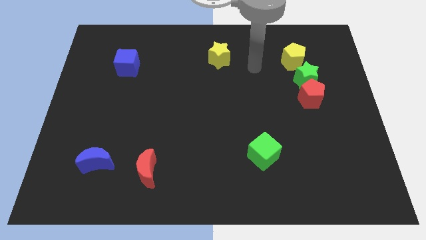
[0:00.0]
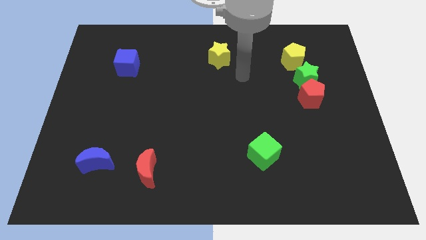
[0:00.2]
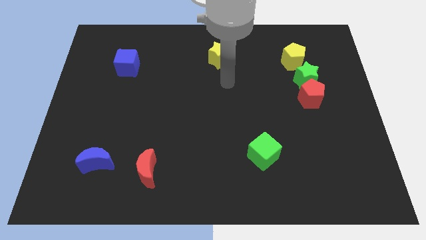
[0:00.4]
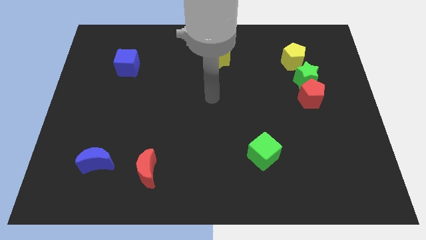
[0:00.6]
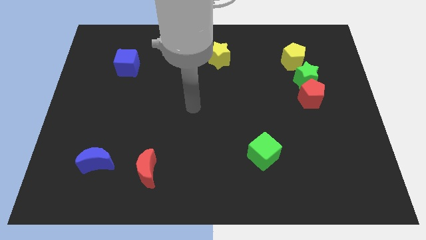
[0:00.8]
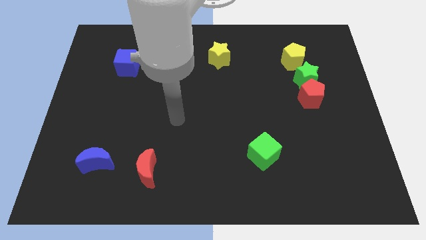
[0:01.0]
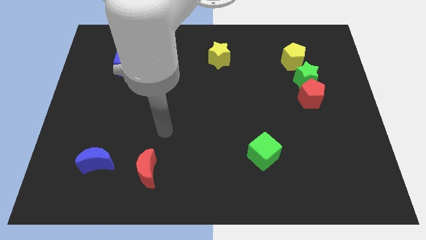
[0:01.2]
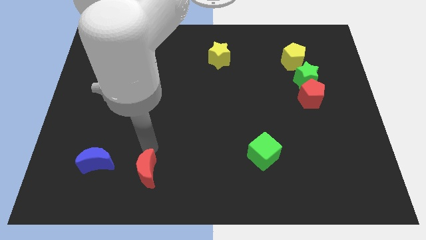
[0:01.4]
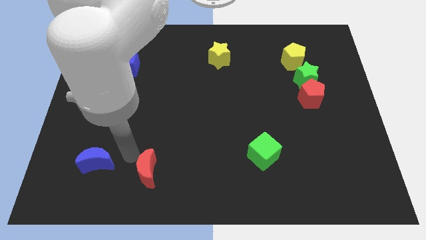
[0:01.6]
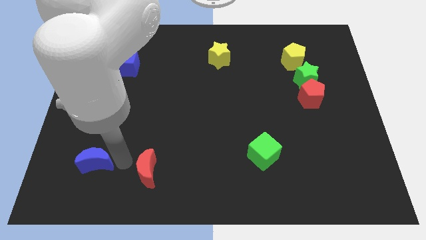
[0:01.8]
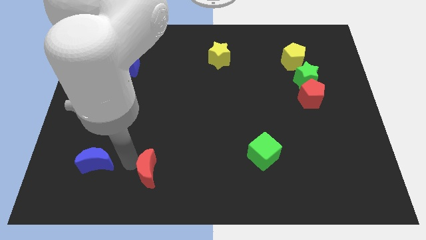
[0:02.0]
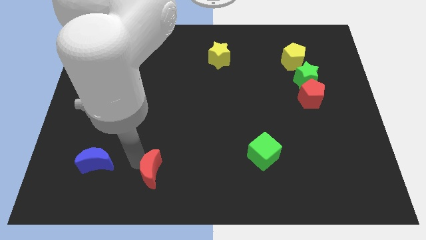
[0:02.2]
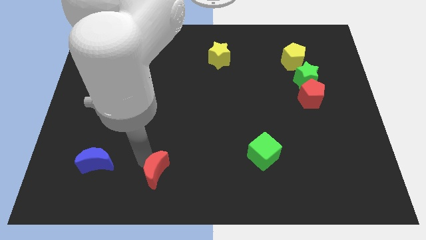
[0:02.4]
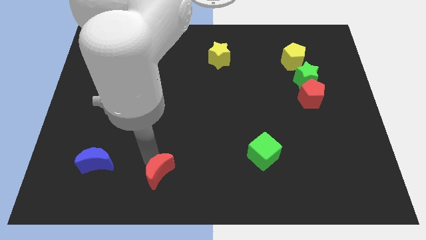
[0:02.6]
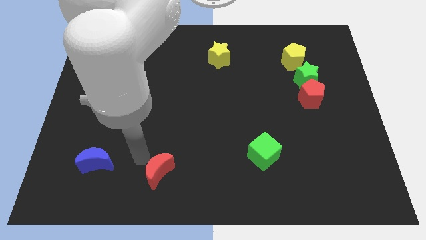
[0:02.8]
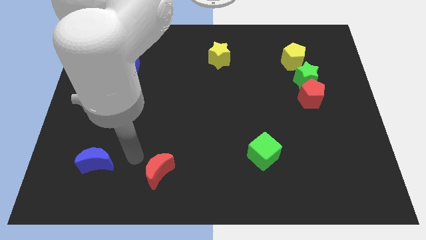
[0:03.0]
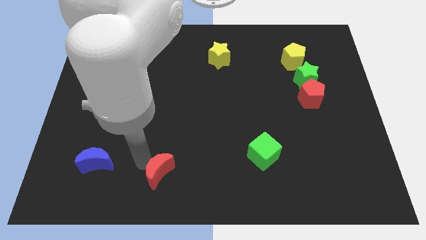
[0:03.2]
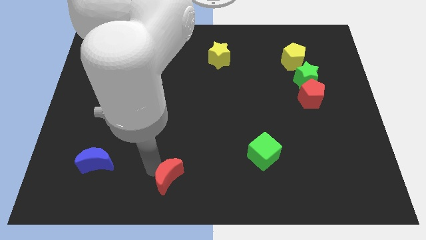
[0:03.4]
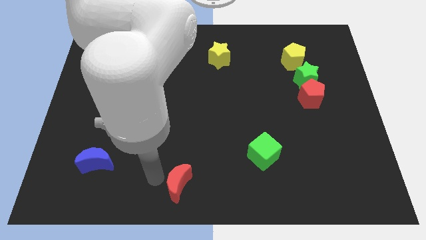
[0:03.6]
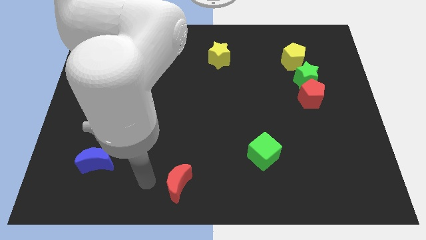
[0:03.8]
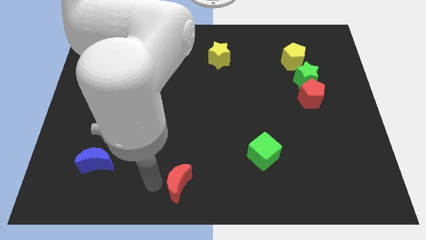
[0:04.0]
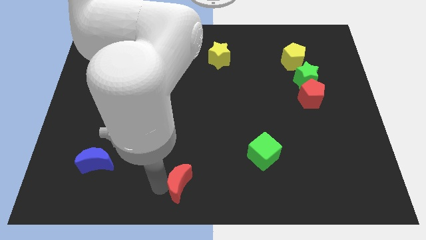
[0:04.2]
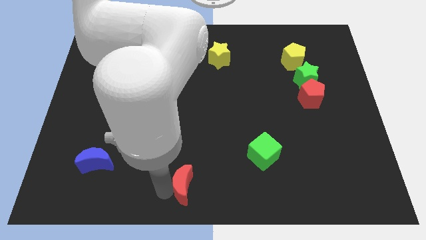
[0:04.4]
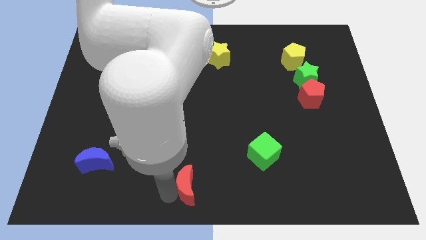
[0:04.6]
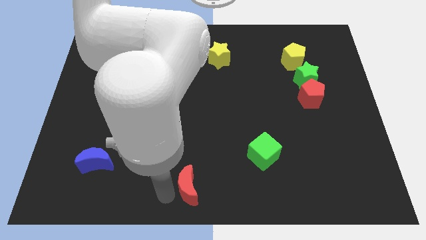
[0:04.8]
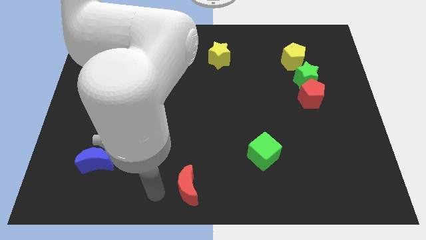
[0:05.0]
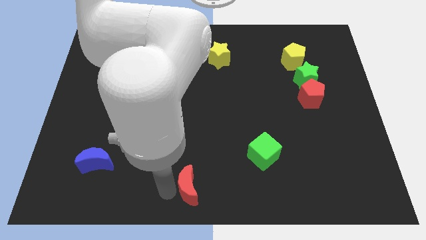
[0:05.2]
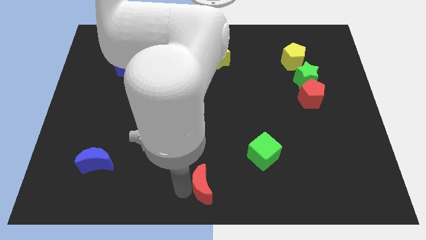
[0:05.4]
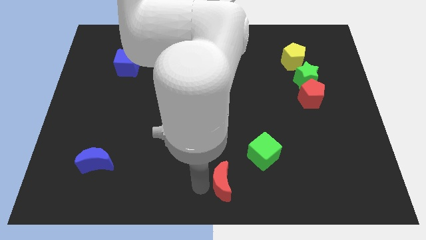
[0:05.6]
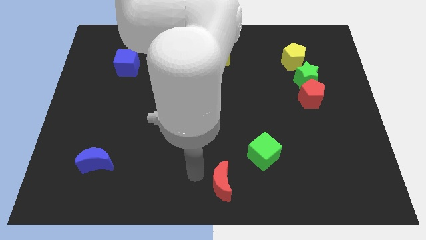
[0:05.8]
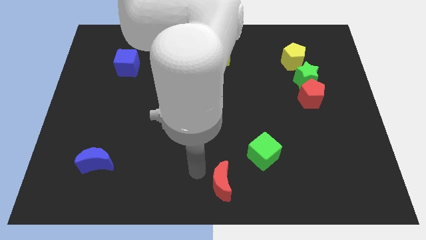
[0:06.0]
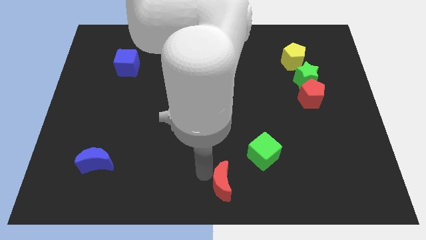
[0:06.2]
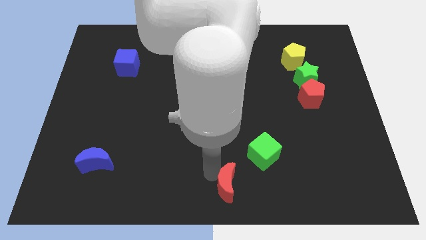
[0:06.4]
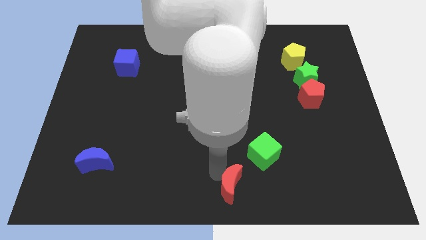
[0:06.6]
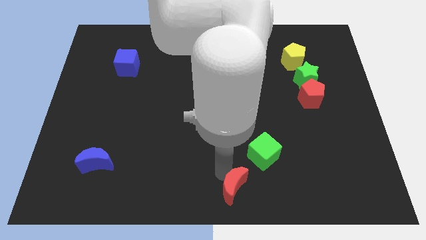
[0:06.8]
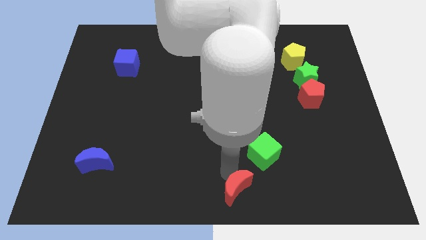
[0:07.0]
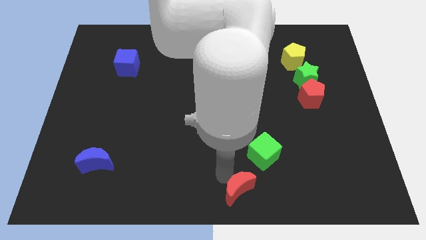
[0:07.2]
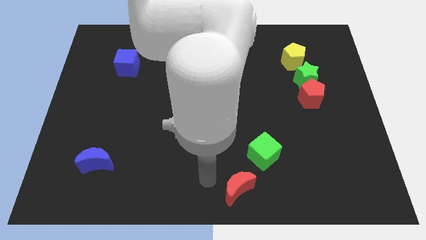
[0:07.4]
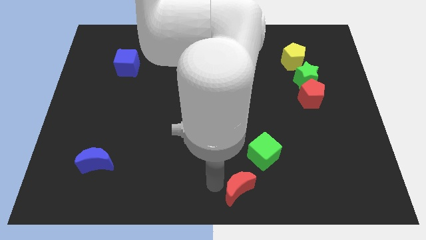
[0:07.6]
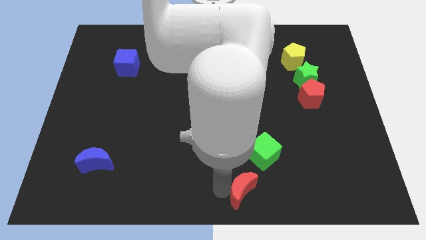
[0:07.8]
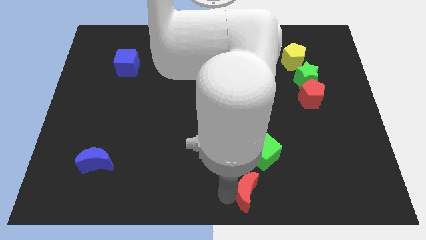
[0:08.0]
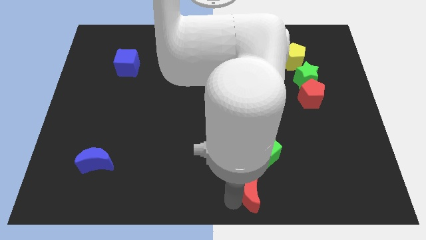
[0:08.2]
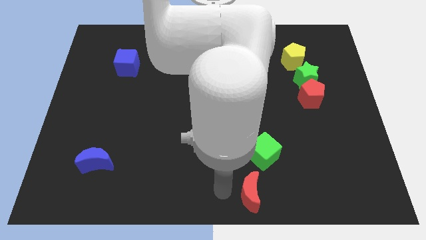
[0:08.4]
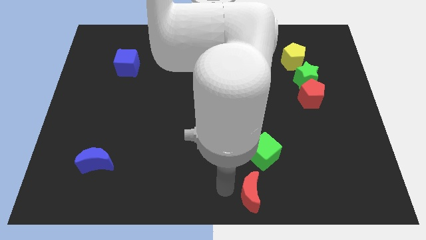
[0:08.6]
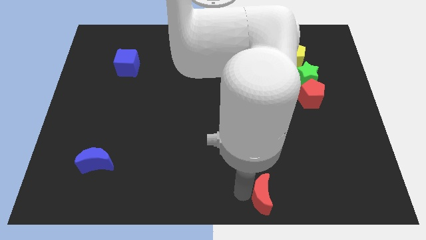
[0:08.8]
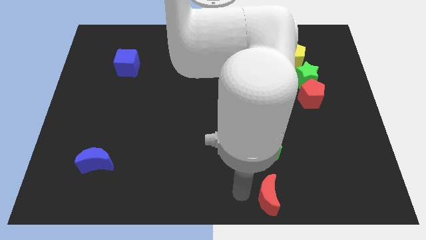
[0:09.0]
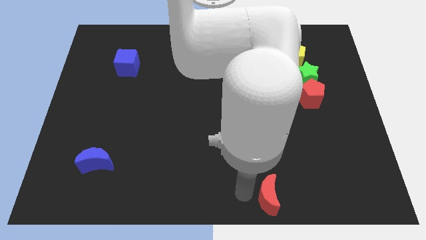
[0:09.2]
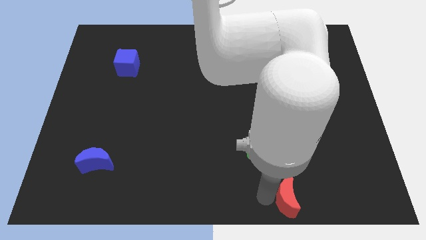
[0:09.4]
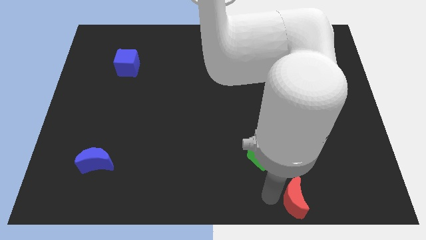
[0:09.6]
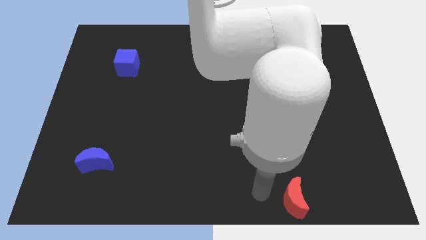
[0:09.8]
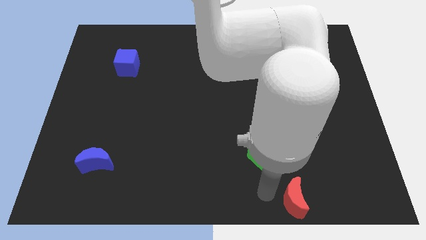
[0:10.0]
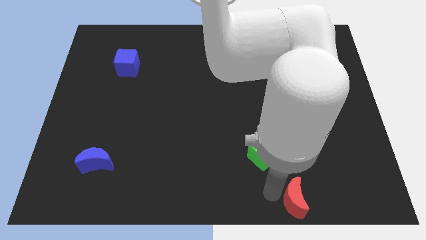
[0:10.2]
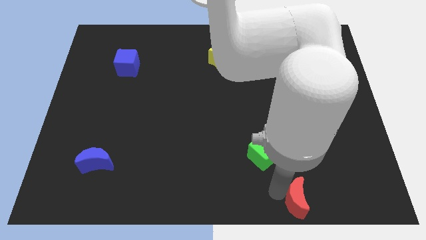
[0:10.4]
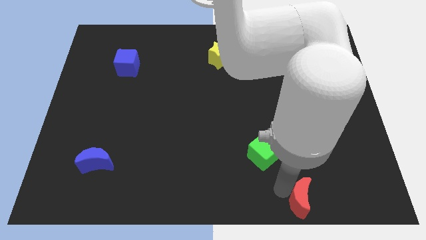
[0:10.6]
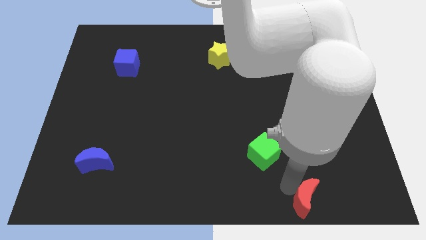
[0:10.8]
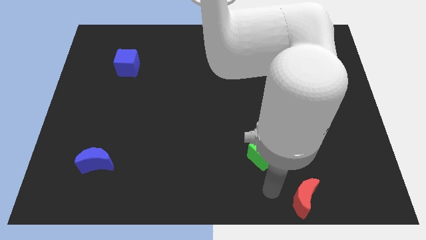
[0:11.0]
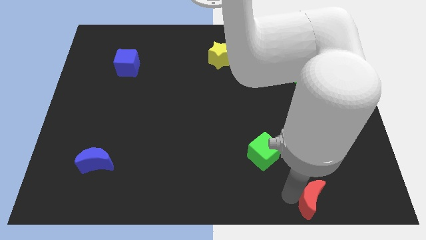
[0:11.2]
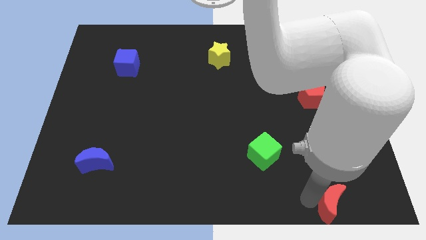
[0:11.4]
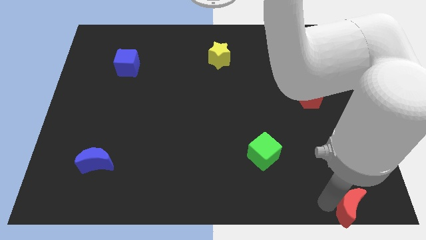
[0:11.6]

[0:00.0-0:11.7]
put the red moon to the bottom right

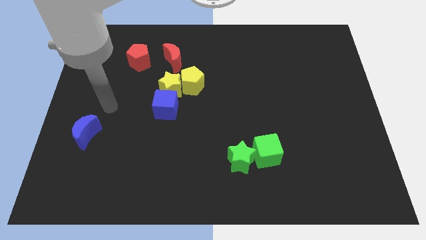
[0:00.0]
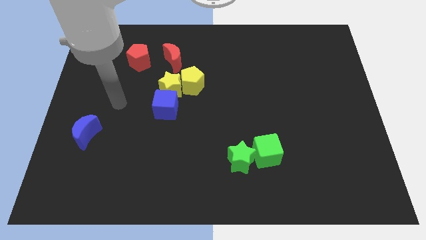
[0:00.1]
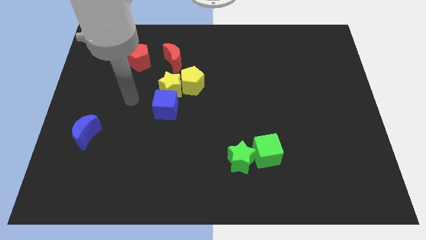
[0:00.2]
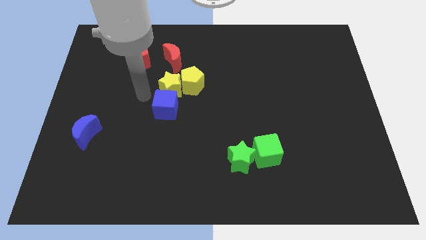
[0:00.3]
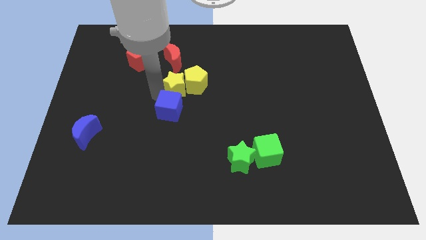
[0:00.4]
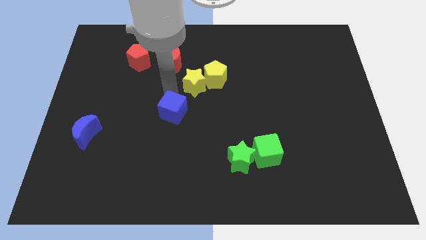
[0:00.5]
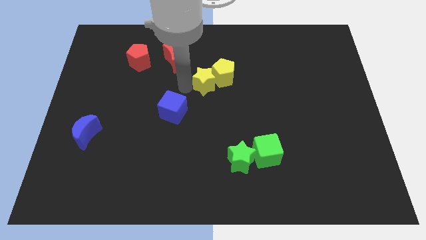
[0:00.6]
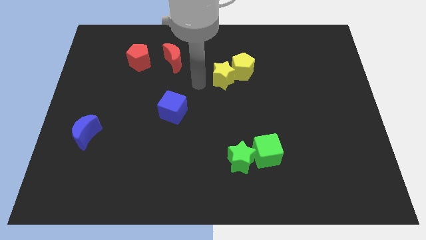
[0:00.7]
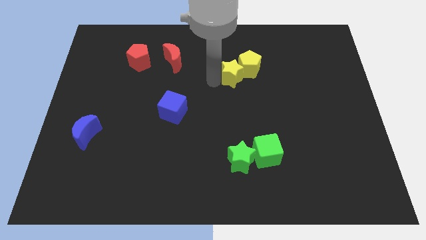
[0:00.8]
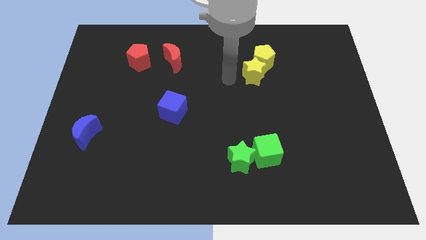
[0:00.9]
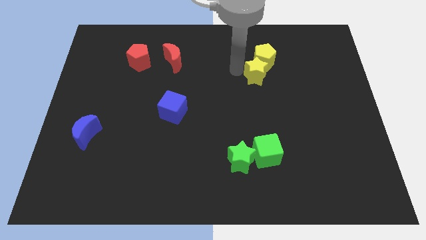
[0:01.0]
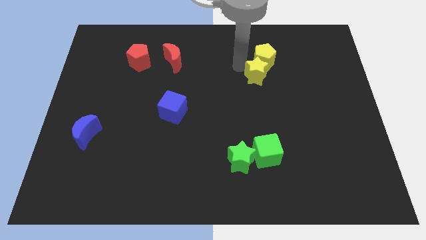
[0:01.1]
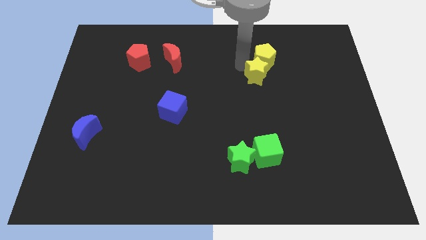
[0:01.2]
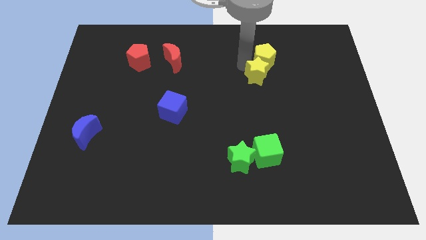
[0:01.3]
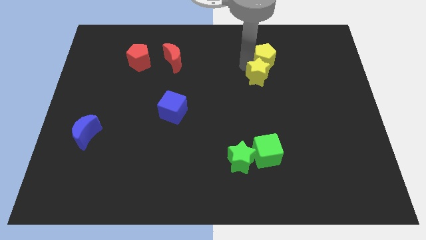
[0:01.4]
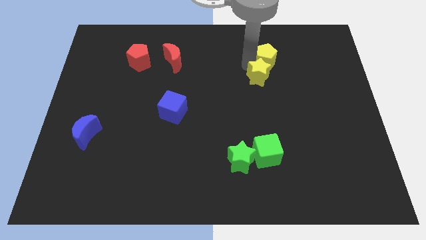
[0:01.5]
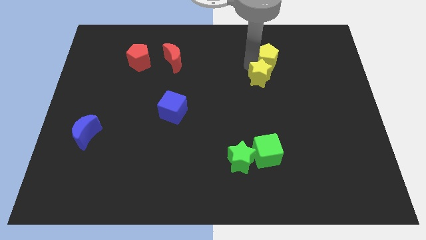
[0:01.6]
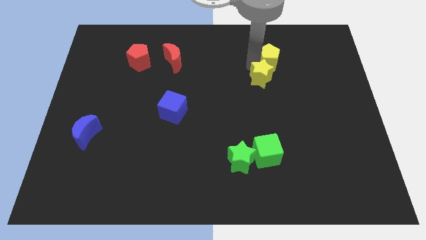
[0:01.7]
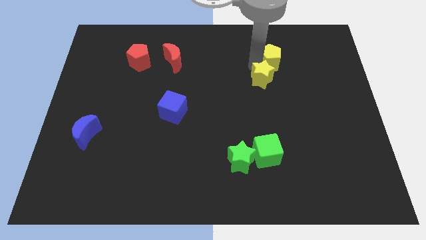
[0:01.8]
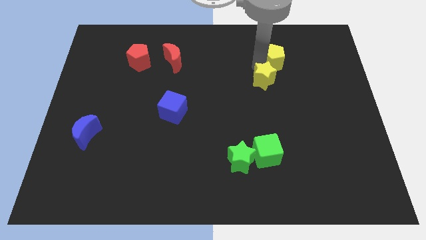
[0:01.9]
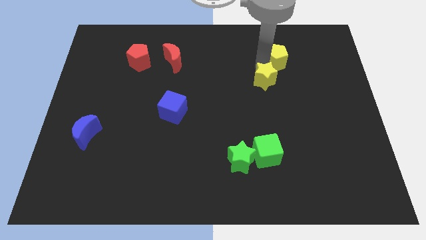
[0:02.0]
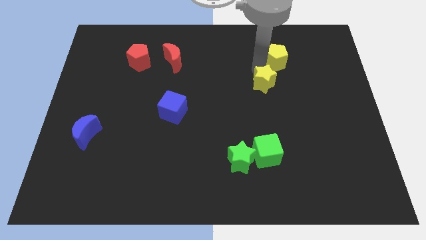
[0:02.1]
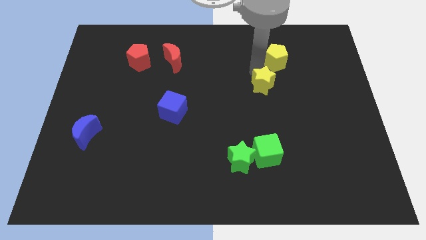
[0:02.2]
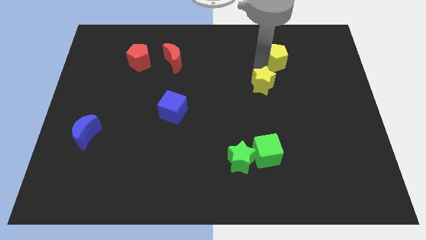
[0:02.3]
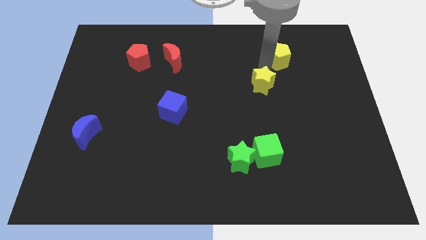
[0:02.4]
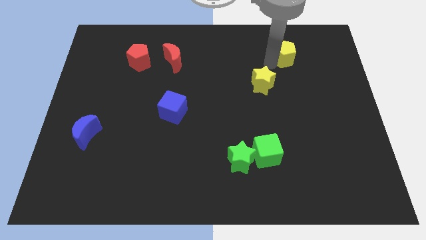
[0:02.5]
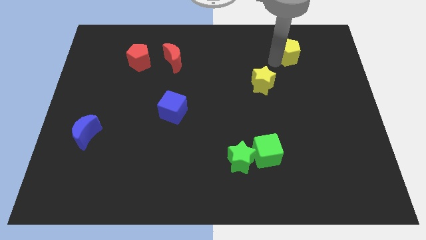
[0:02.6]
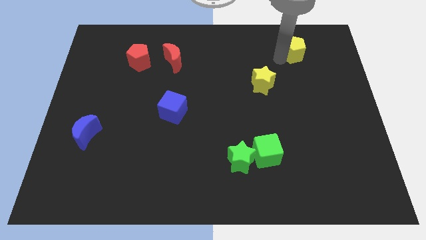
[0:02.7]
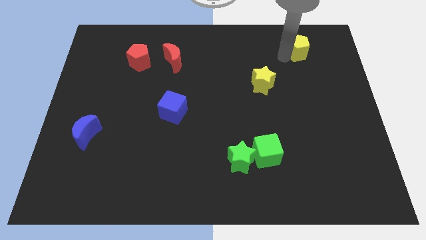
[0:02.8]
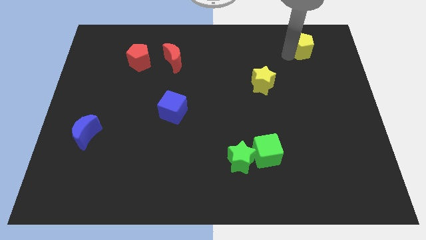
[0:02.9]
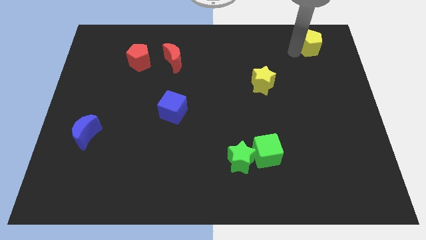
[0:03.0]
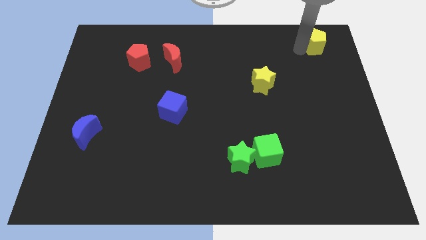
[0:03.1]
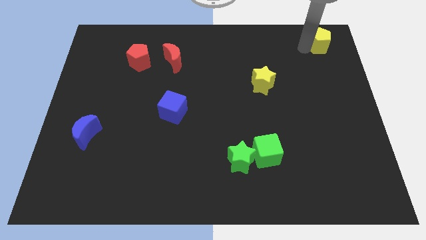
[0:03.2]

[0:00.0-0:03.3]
push the yellow pentagon to the top right of the board
